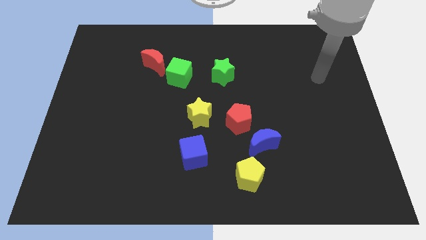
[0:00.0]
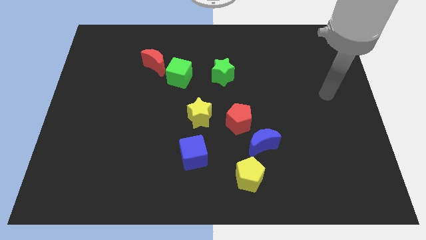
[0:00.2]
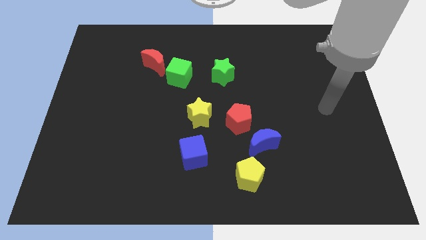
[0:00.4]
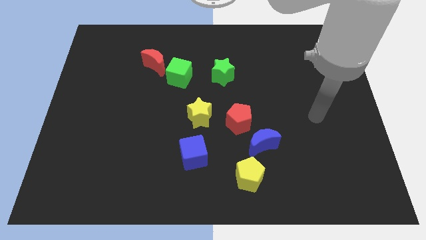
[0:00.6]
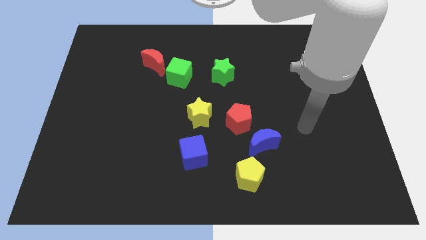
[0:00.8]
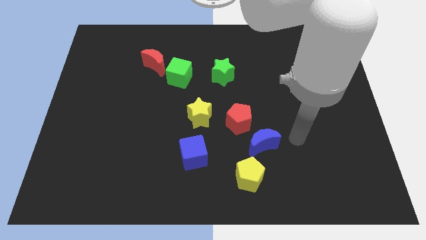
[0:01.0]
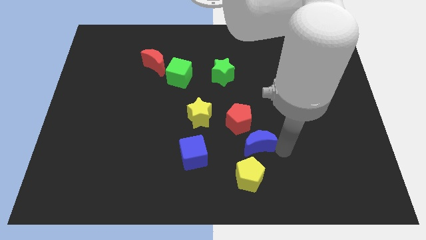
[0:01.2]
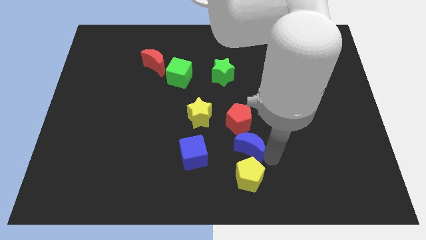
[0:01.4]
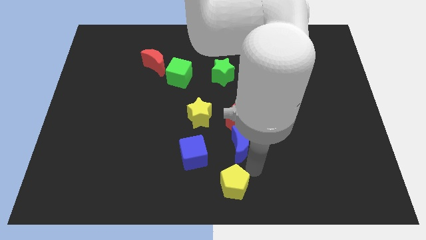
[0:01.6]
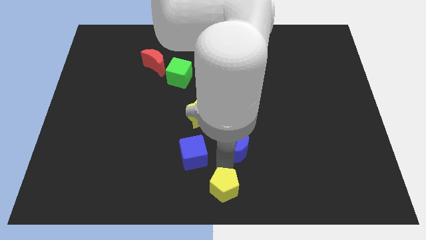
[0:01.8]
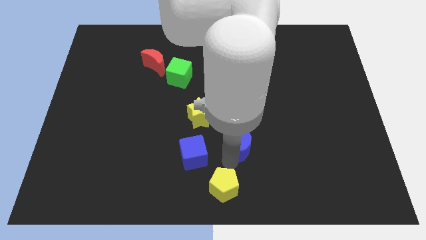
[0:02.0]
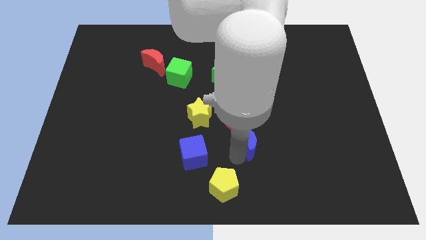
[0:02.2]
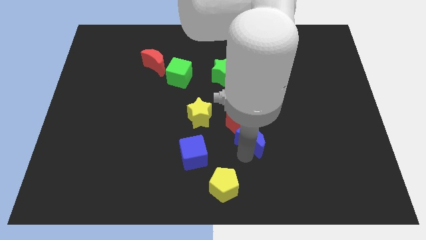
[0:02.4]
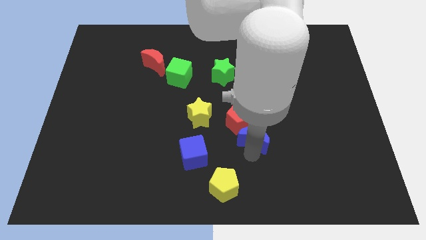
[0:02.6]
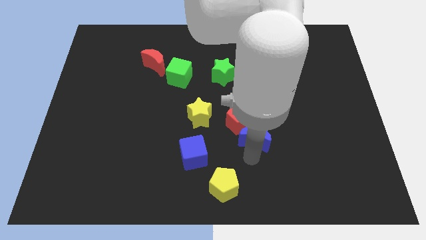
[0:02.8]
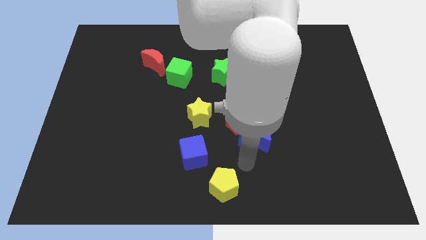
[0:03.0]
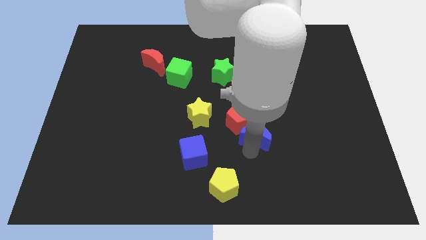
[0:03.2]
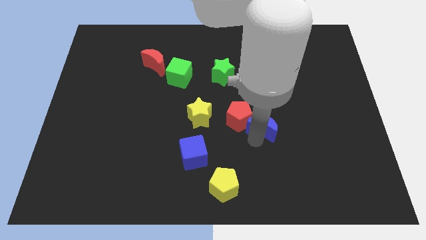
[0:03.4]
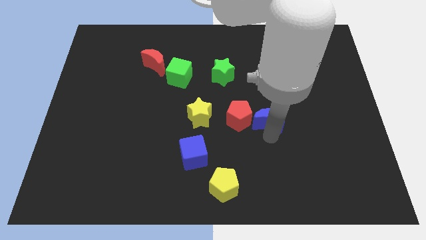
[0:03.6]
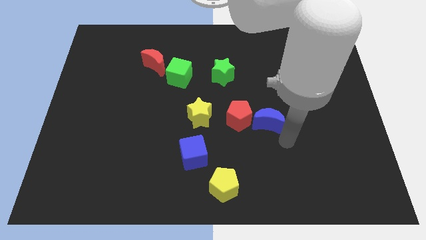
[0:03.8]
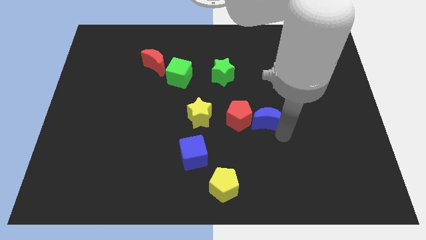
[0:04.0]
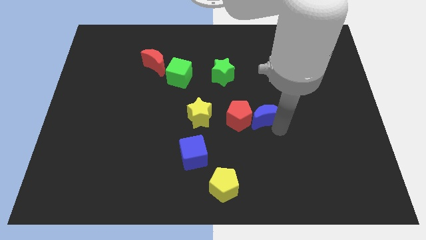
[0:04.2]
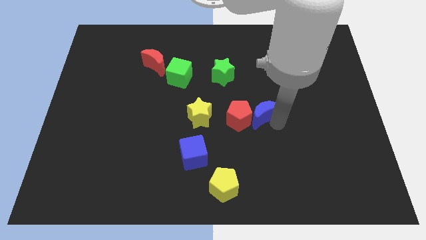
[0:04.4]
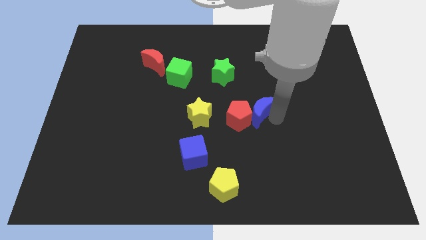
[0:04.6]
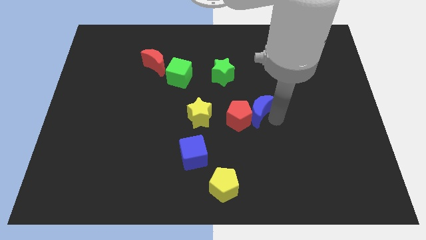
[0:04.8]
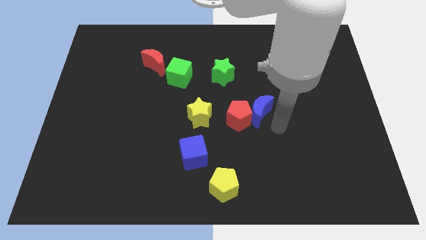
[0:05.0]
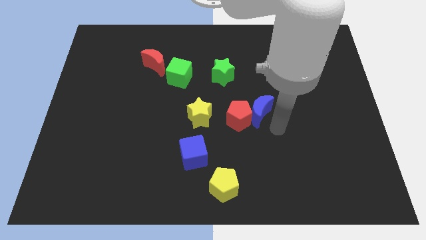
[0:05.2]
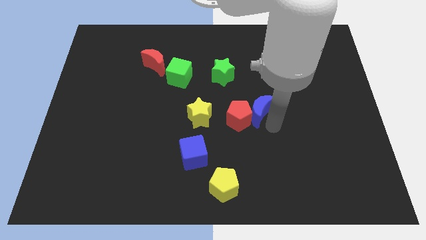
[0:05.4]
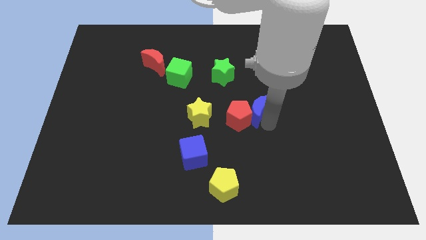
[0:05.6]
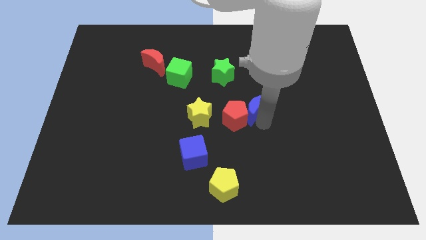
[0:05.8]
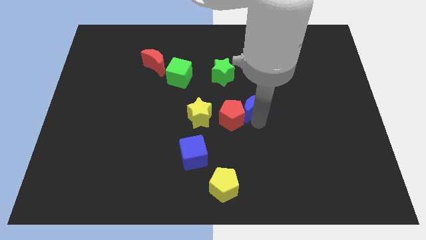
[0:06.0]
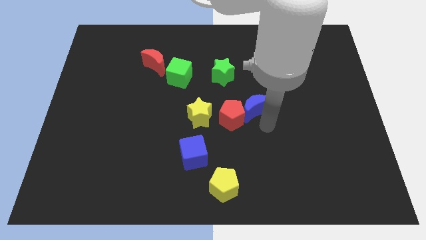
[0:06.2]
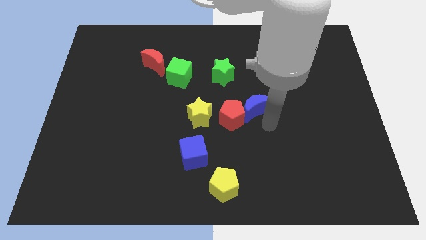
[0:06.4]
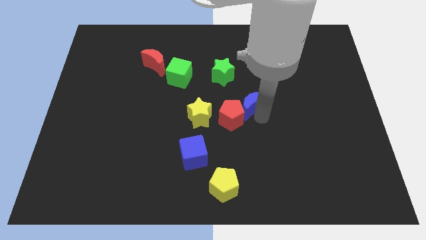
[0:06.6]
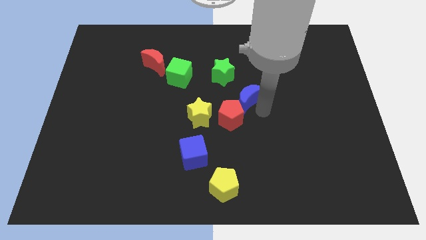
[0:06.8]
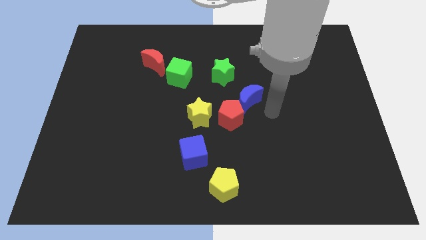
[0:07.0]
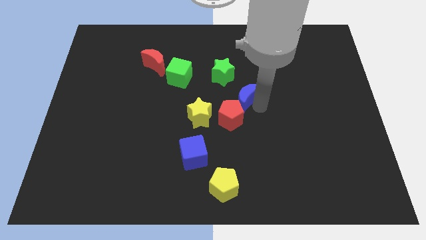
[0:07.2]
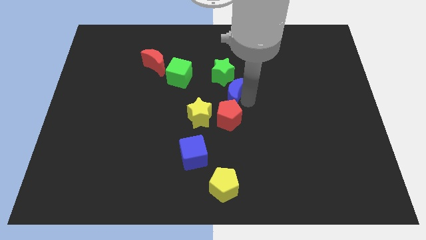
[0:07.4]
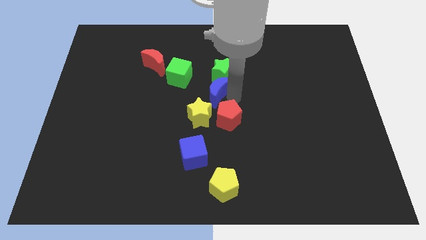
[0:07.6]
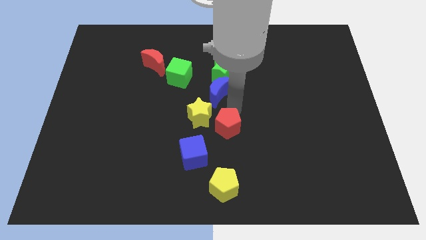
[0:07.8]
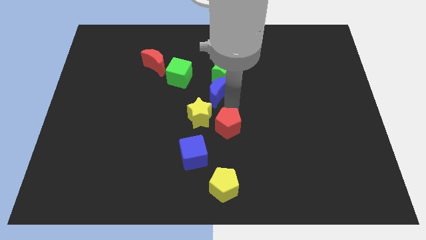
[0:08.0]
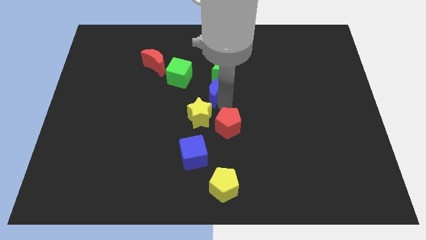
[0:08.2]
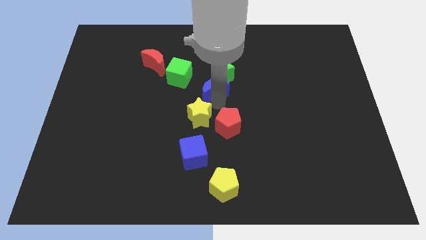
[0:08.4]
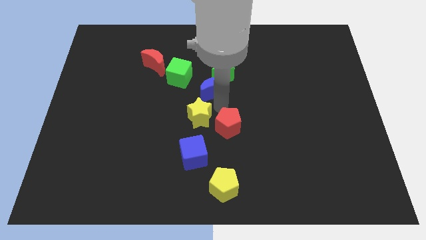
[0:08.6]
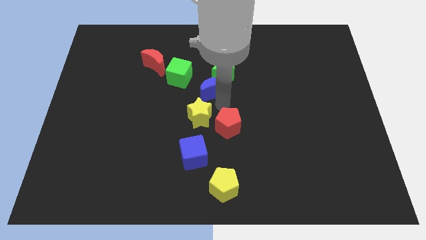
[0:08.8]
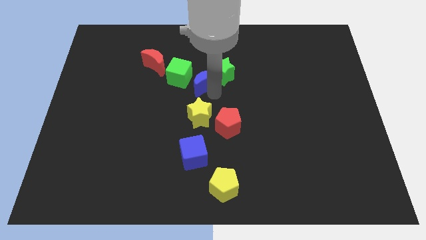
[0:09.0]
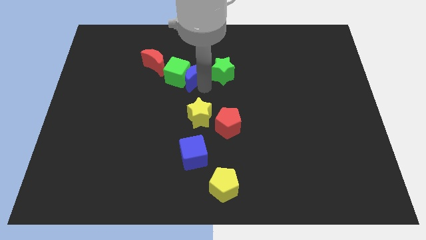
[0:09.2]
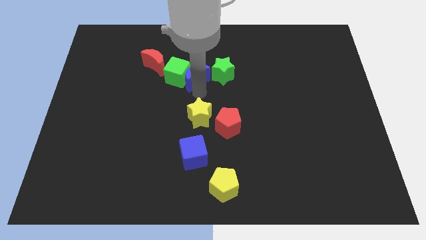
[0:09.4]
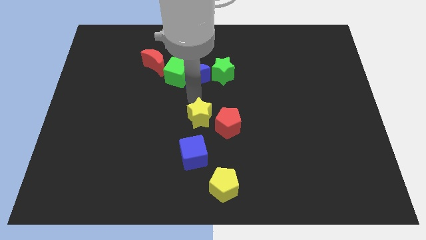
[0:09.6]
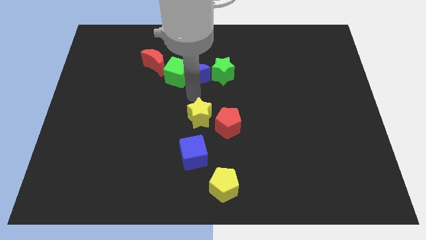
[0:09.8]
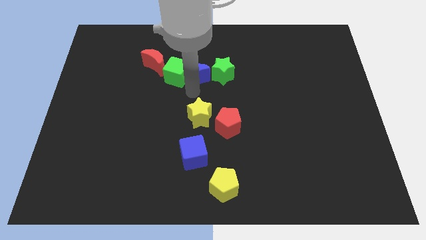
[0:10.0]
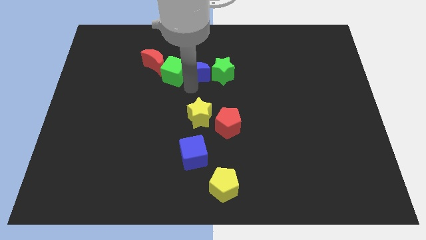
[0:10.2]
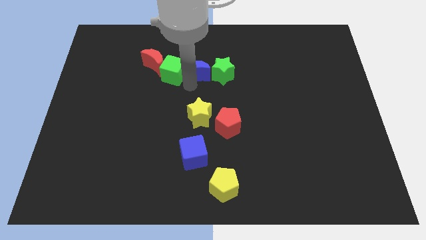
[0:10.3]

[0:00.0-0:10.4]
move the blue moon to the top left of the green star

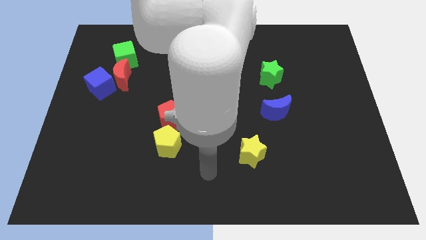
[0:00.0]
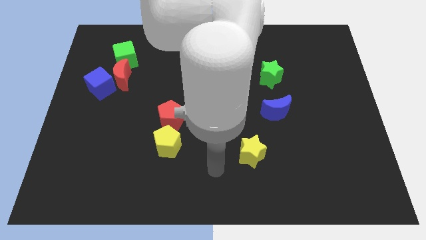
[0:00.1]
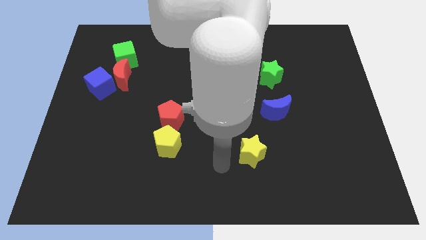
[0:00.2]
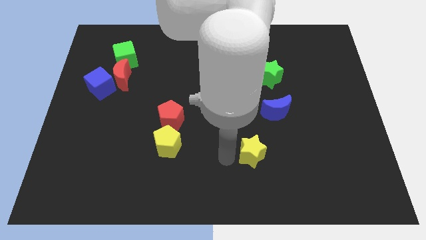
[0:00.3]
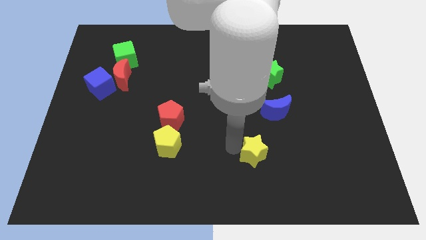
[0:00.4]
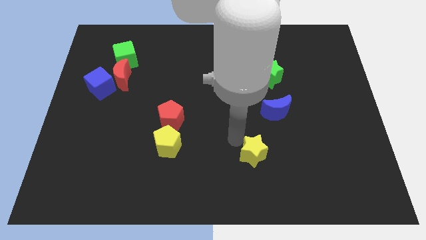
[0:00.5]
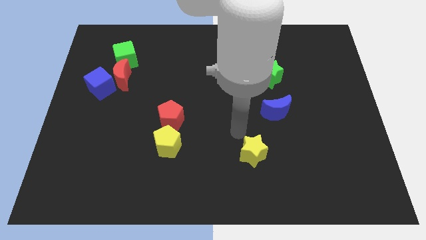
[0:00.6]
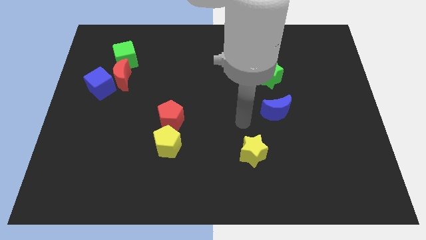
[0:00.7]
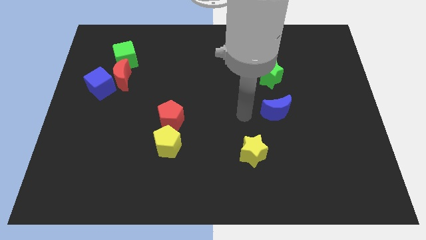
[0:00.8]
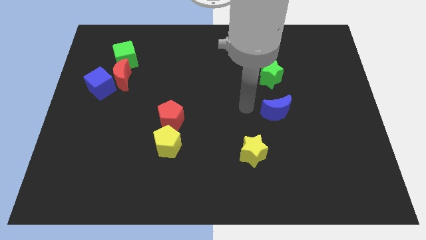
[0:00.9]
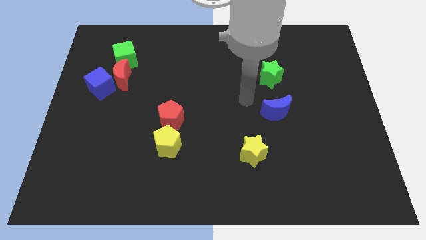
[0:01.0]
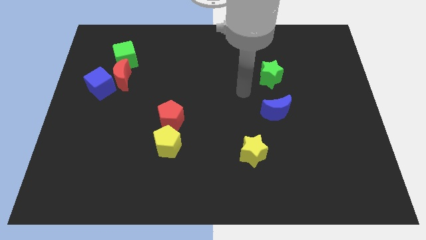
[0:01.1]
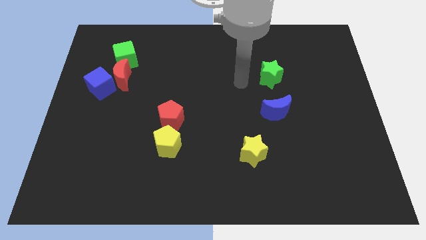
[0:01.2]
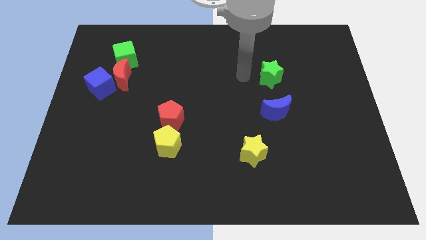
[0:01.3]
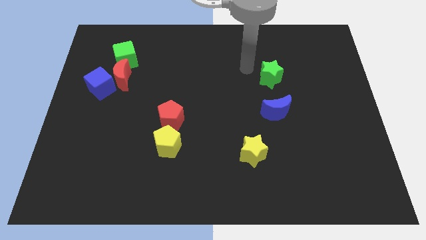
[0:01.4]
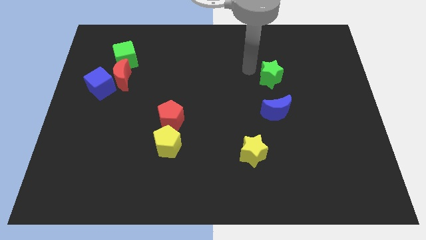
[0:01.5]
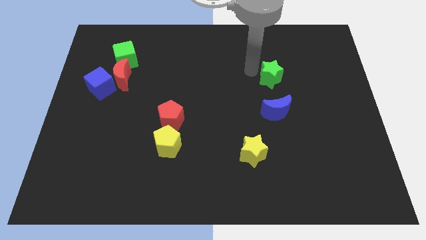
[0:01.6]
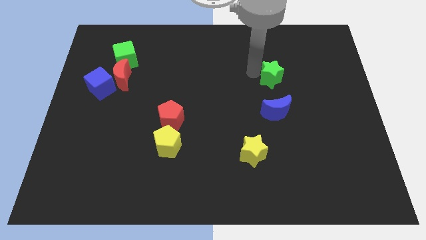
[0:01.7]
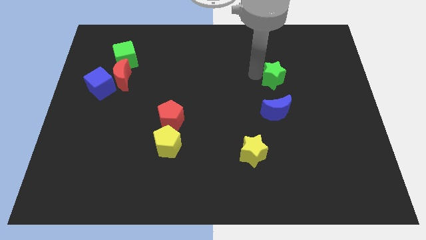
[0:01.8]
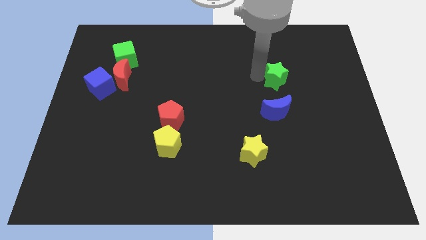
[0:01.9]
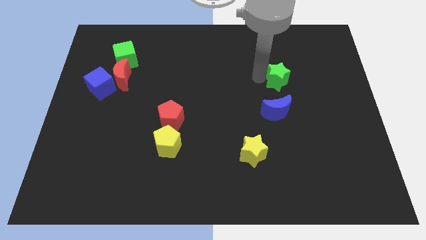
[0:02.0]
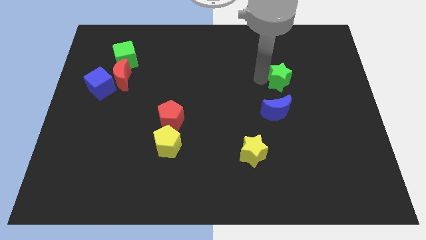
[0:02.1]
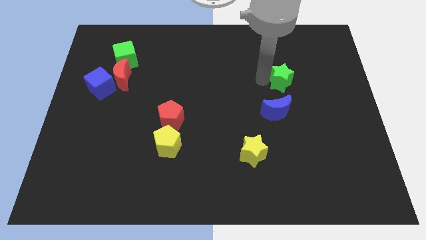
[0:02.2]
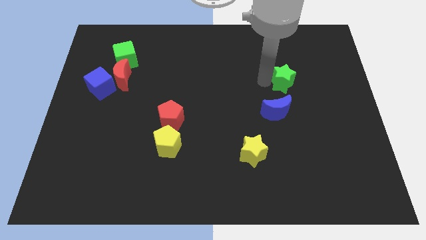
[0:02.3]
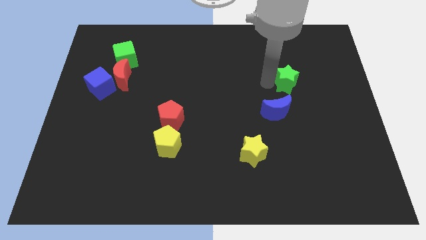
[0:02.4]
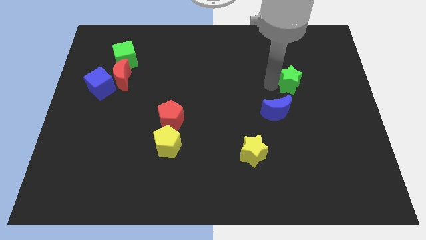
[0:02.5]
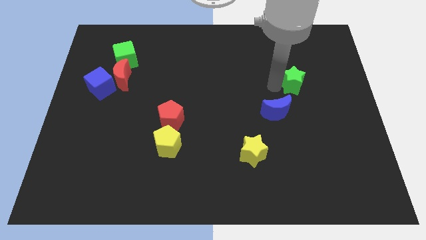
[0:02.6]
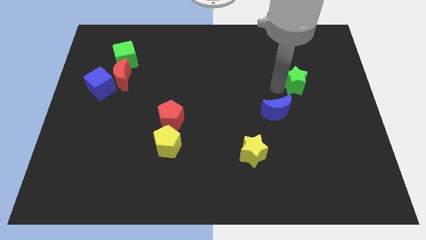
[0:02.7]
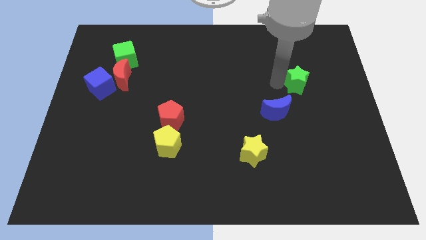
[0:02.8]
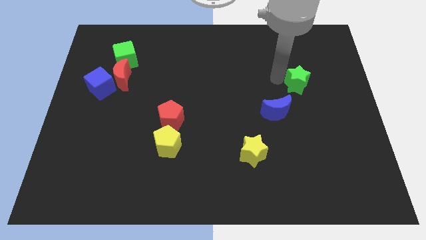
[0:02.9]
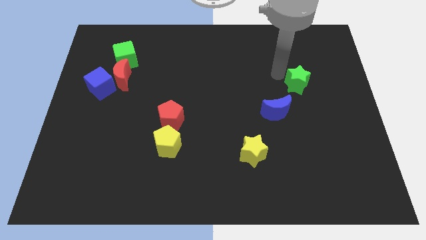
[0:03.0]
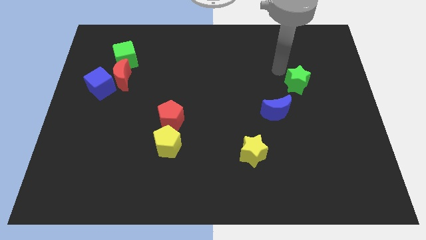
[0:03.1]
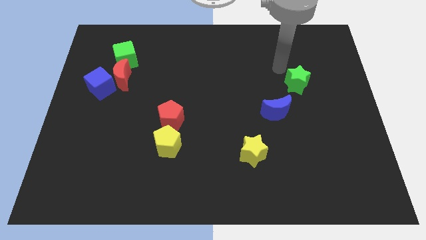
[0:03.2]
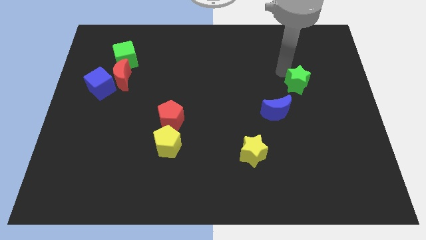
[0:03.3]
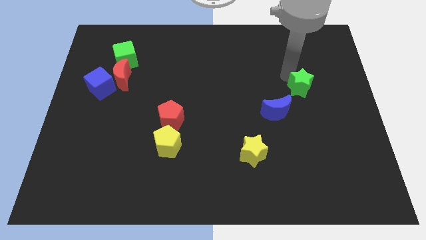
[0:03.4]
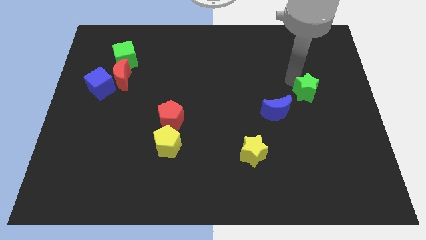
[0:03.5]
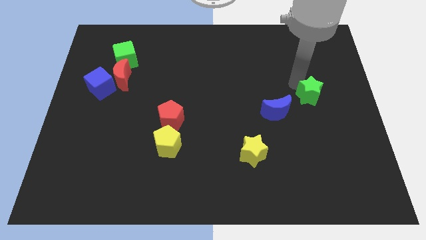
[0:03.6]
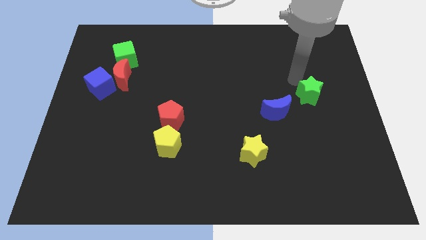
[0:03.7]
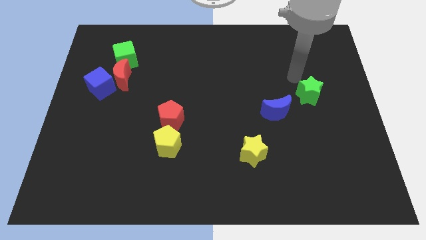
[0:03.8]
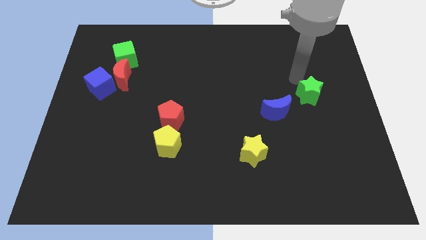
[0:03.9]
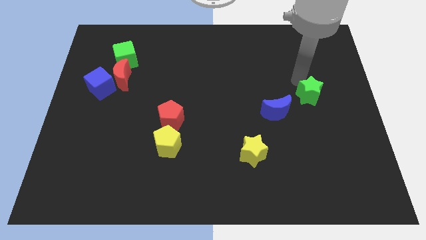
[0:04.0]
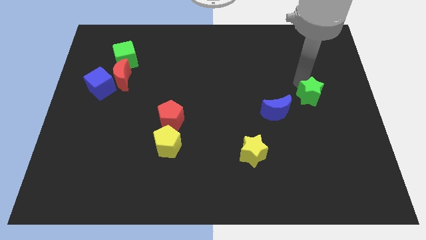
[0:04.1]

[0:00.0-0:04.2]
put the green star to the right side of the blue moon
